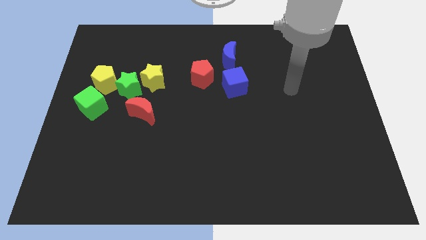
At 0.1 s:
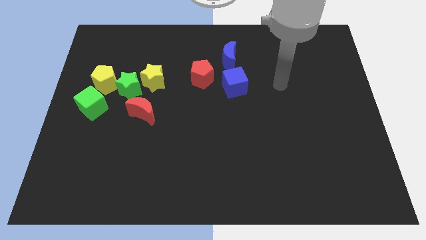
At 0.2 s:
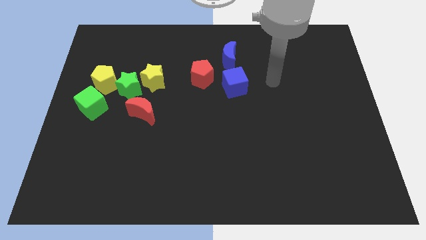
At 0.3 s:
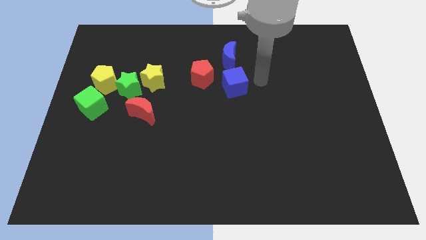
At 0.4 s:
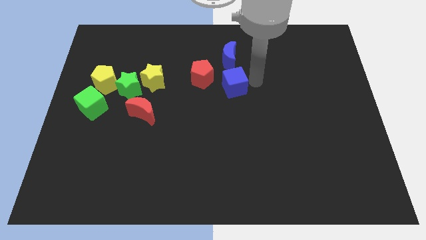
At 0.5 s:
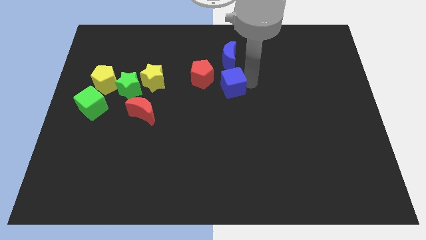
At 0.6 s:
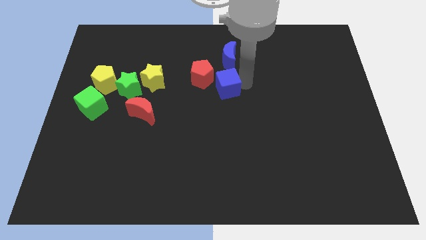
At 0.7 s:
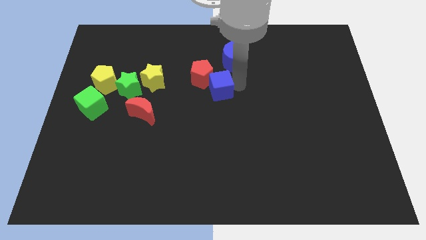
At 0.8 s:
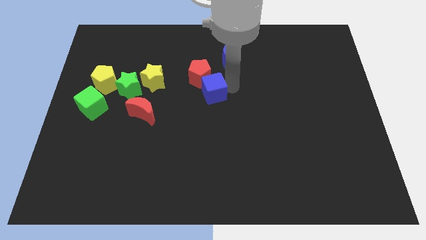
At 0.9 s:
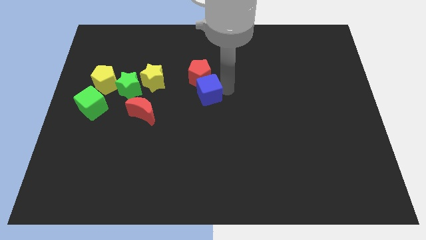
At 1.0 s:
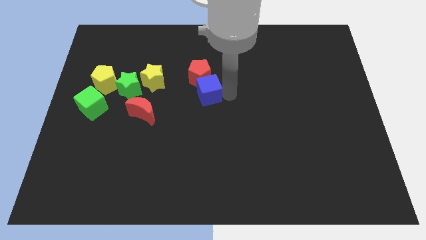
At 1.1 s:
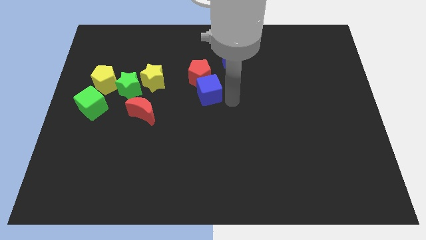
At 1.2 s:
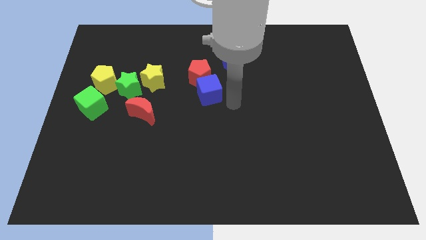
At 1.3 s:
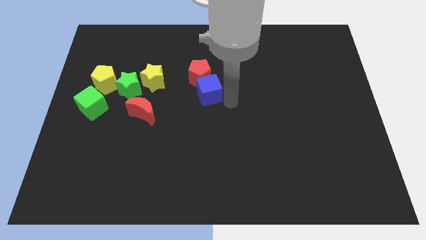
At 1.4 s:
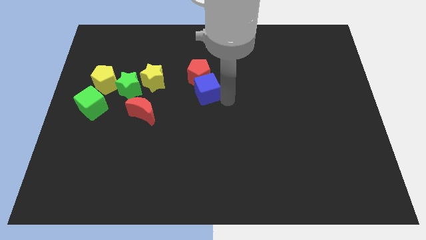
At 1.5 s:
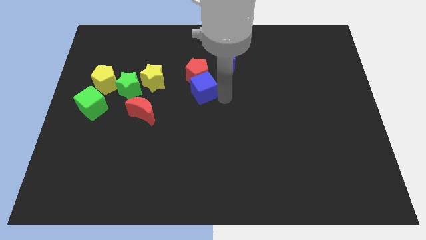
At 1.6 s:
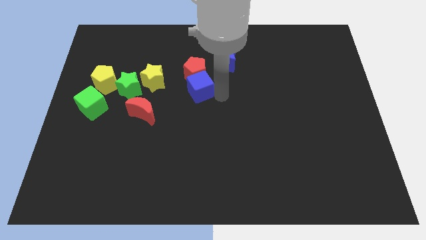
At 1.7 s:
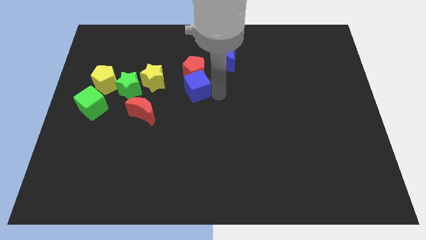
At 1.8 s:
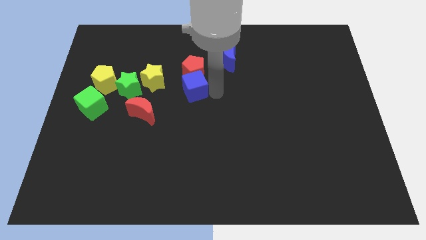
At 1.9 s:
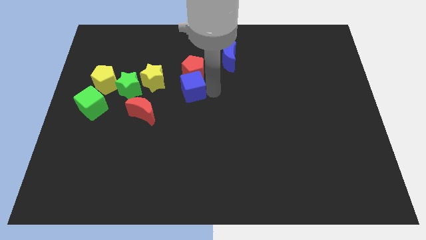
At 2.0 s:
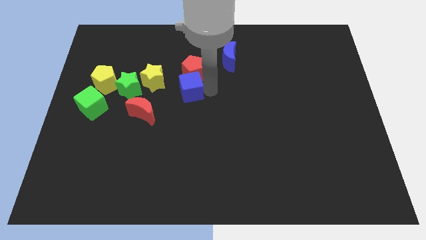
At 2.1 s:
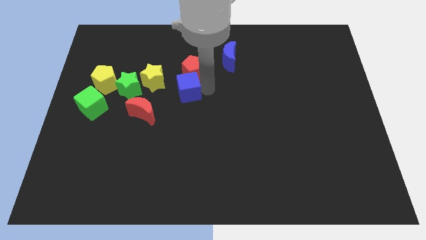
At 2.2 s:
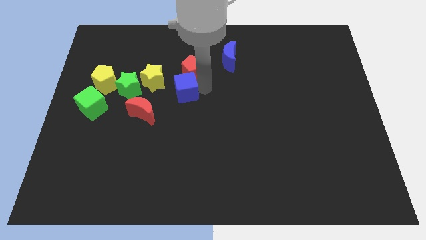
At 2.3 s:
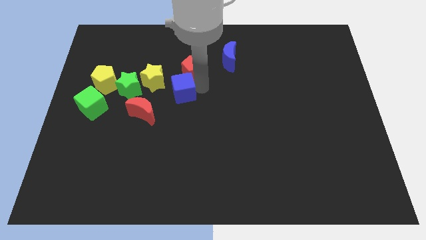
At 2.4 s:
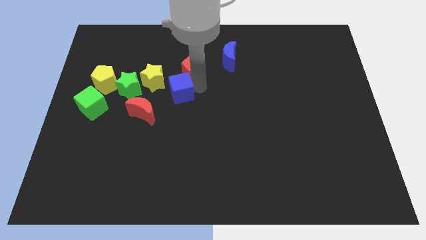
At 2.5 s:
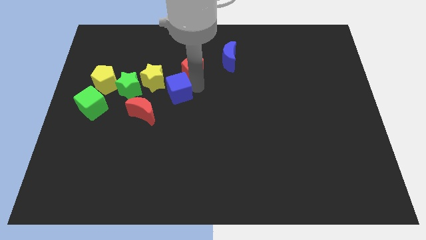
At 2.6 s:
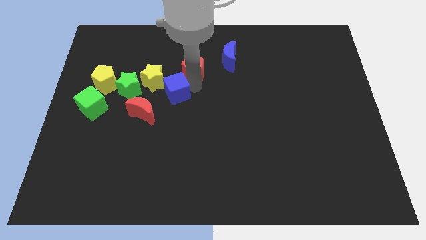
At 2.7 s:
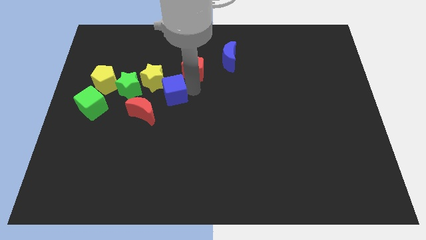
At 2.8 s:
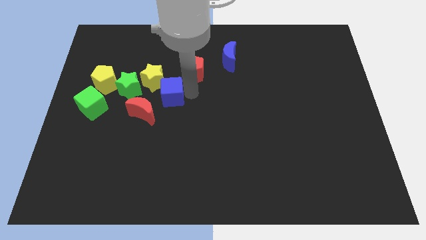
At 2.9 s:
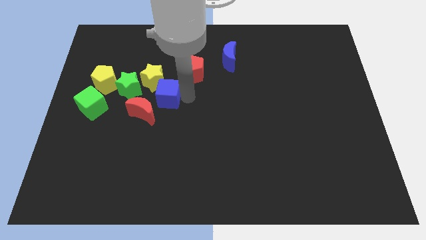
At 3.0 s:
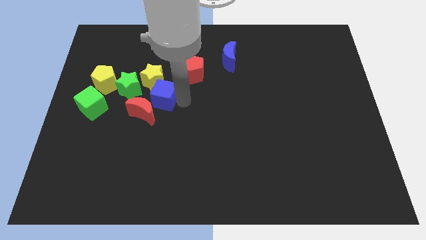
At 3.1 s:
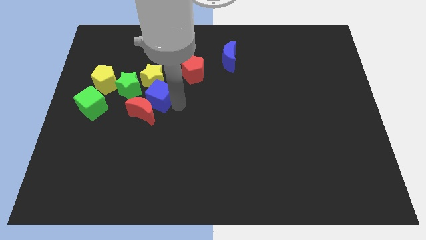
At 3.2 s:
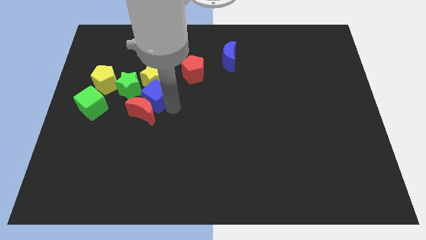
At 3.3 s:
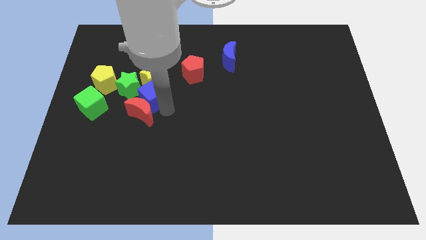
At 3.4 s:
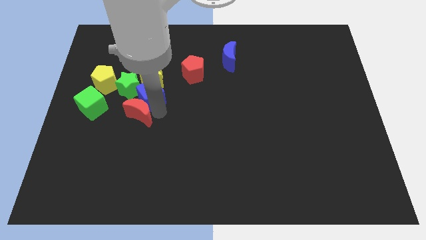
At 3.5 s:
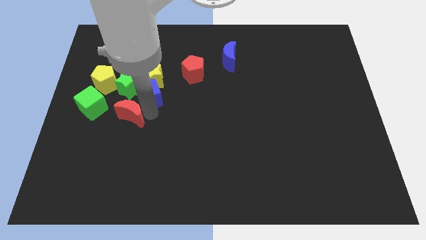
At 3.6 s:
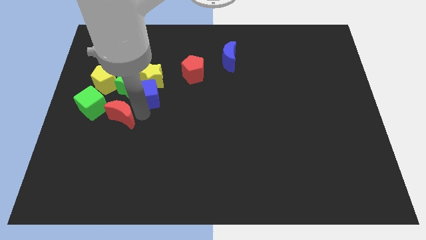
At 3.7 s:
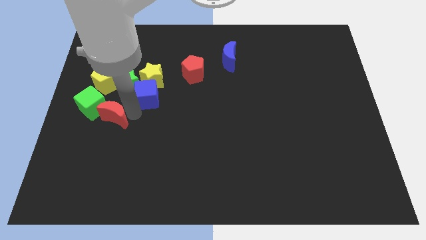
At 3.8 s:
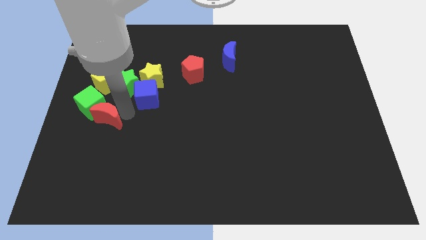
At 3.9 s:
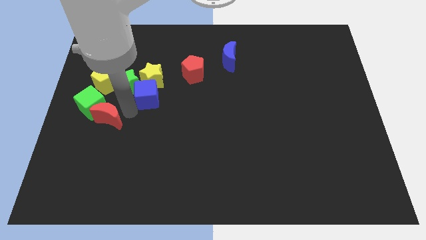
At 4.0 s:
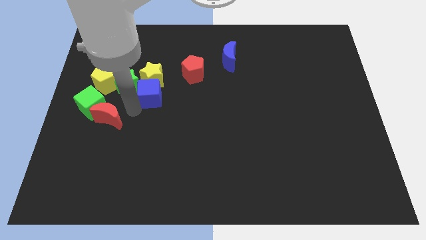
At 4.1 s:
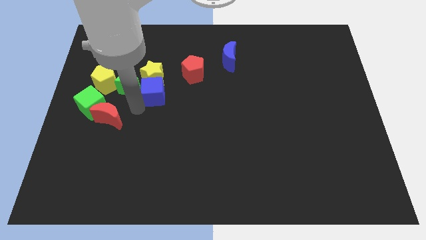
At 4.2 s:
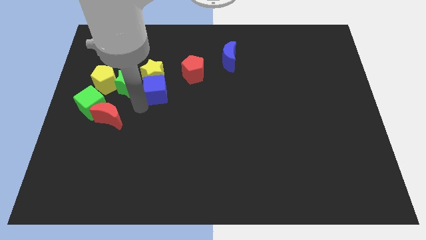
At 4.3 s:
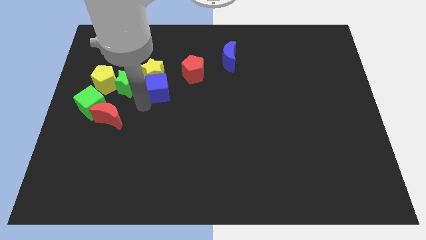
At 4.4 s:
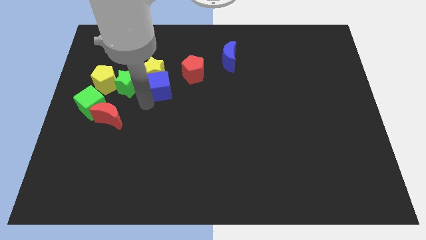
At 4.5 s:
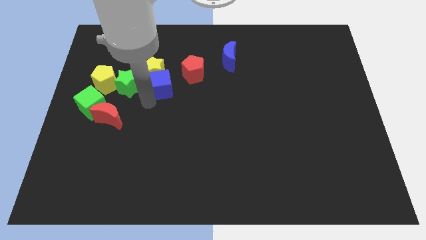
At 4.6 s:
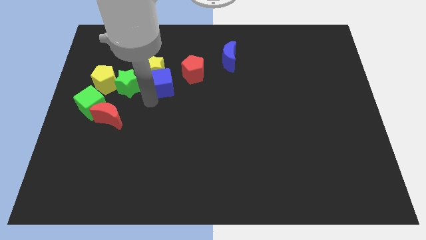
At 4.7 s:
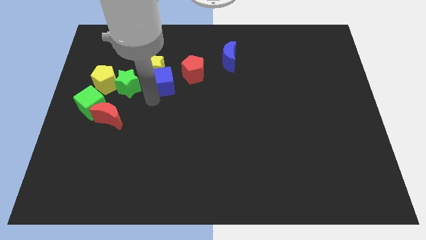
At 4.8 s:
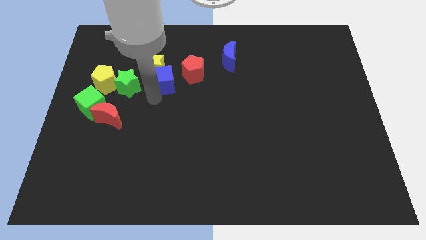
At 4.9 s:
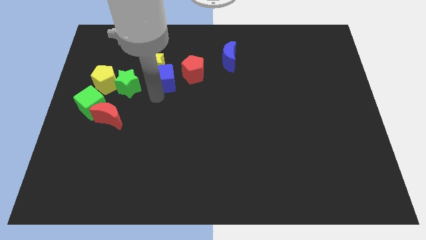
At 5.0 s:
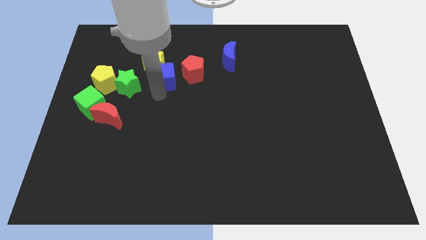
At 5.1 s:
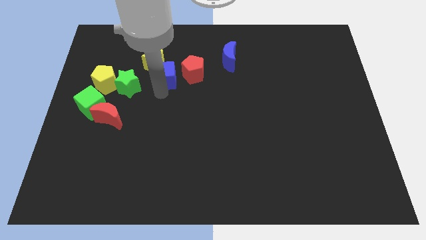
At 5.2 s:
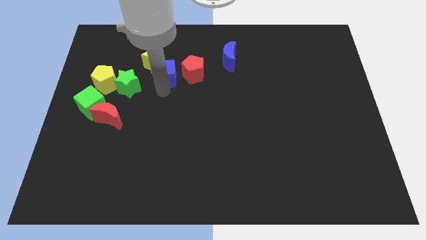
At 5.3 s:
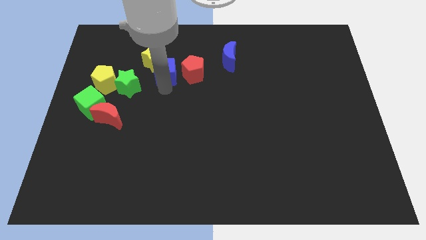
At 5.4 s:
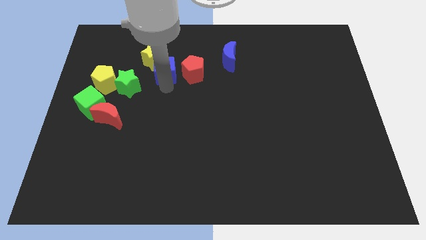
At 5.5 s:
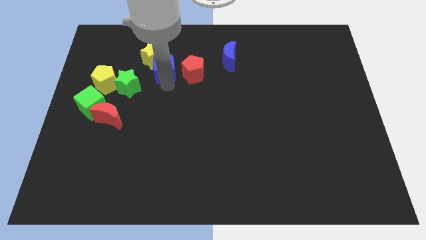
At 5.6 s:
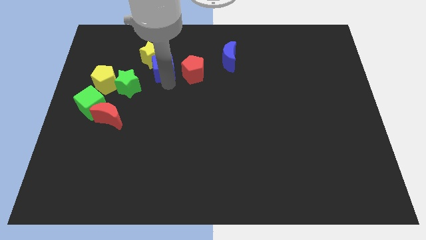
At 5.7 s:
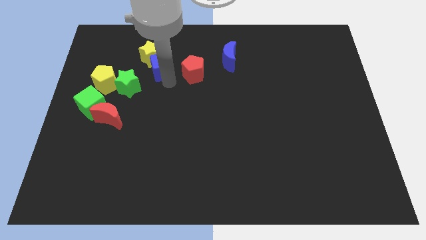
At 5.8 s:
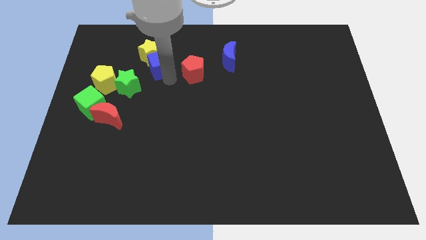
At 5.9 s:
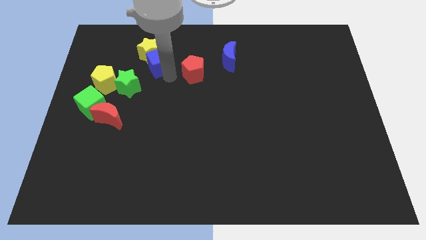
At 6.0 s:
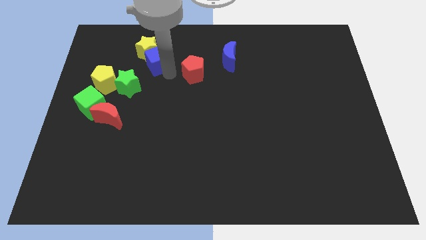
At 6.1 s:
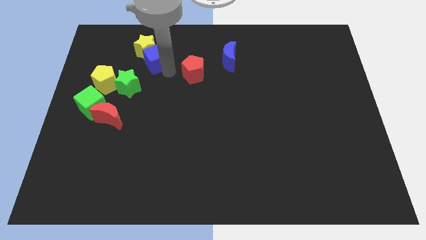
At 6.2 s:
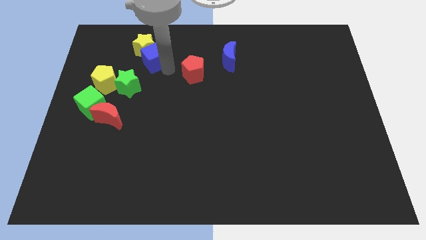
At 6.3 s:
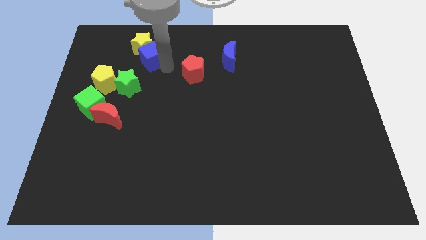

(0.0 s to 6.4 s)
slide the blue cube to the top side of the green star

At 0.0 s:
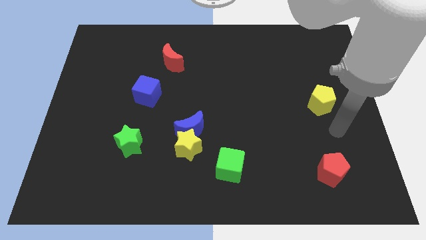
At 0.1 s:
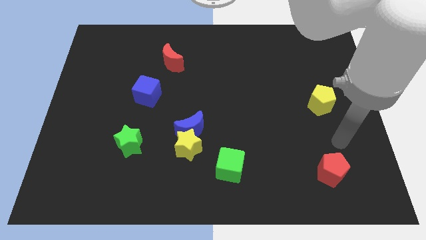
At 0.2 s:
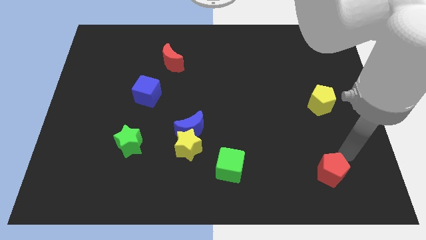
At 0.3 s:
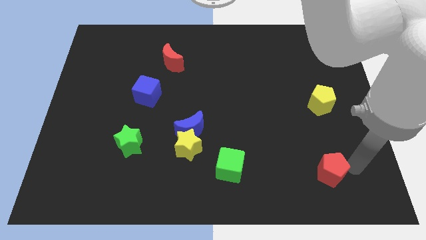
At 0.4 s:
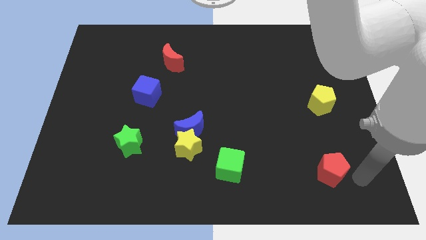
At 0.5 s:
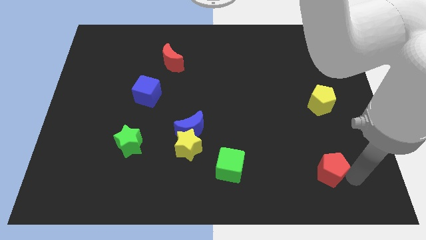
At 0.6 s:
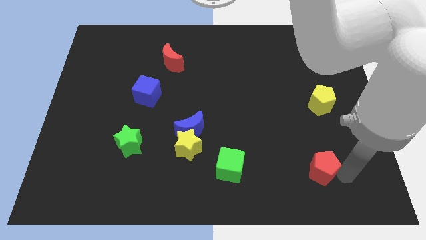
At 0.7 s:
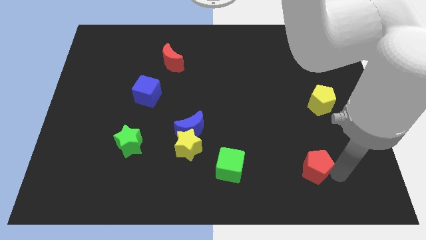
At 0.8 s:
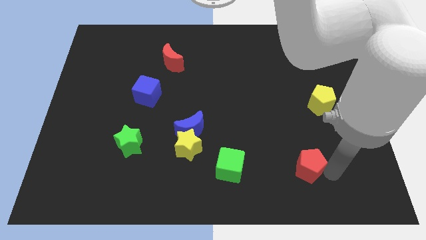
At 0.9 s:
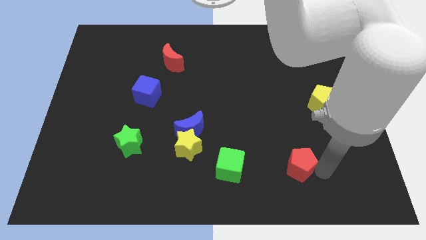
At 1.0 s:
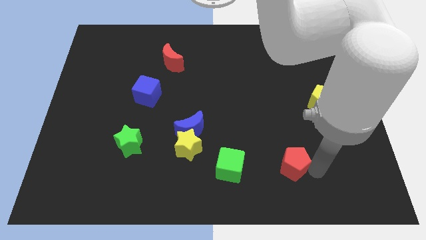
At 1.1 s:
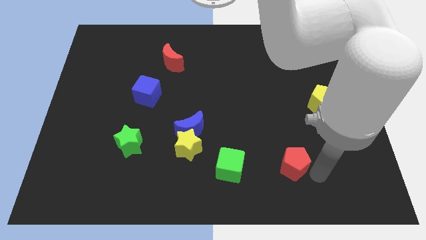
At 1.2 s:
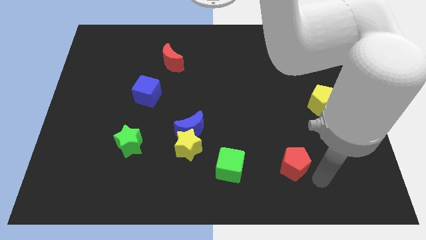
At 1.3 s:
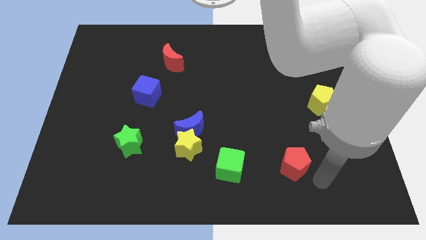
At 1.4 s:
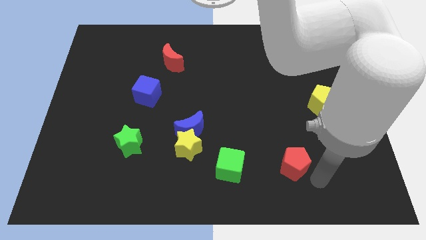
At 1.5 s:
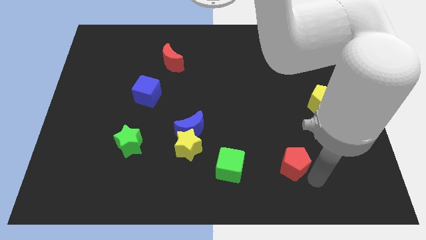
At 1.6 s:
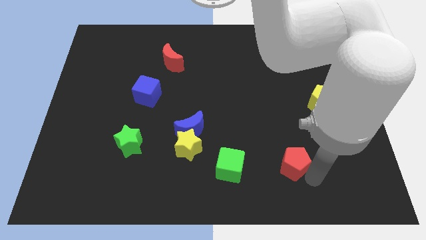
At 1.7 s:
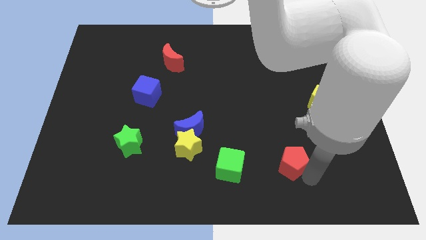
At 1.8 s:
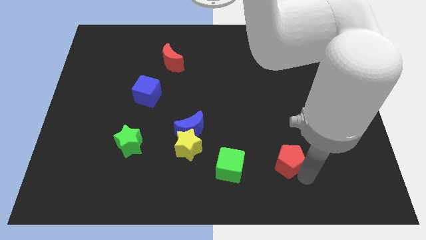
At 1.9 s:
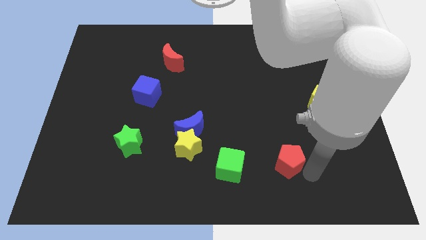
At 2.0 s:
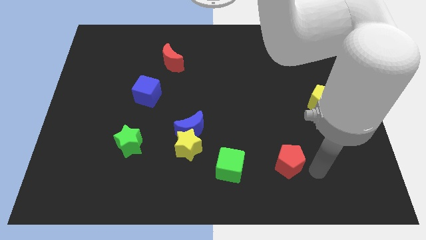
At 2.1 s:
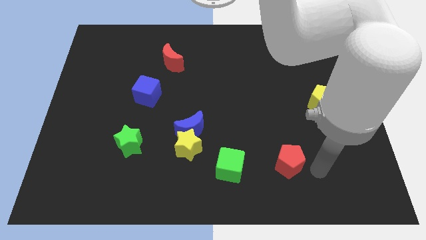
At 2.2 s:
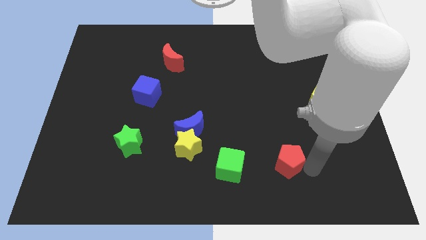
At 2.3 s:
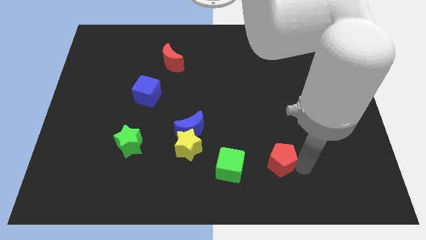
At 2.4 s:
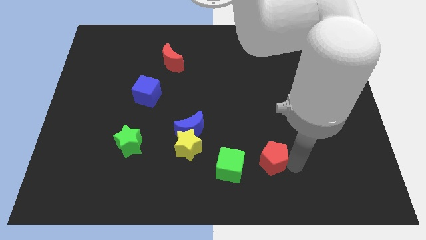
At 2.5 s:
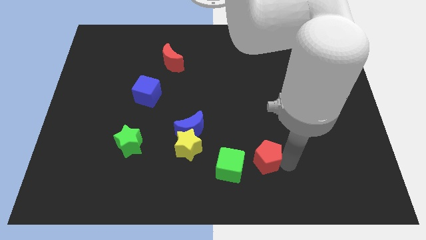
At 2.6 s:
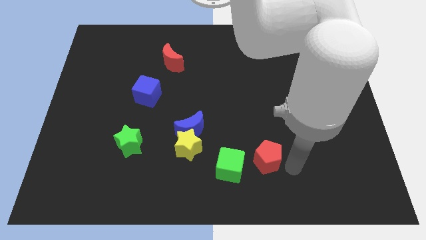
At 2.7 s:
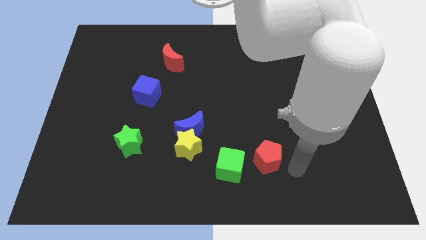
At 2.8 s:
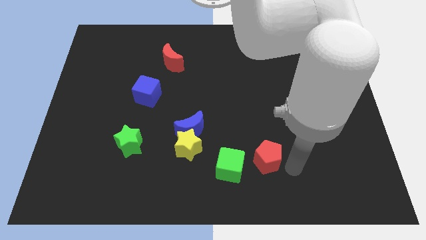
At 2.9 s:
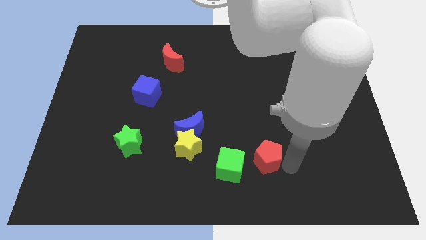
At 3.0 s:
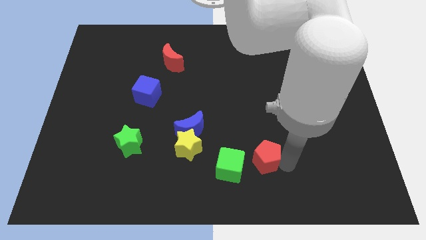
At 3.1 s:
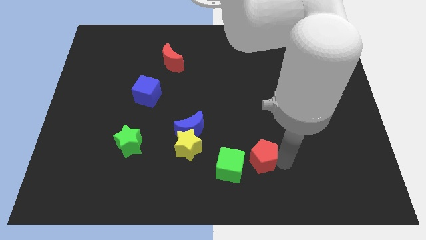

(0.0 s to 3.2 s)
slide the red pentagon to the right side of the yellow star
